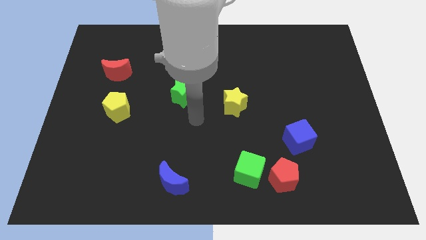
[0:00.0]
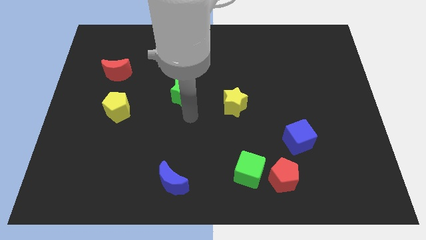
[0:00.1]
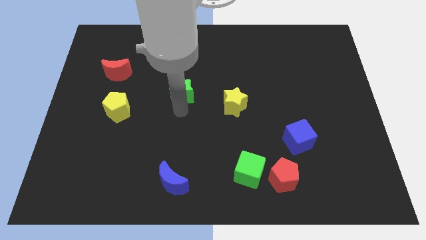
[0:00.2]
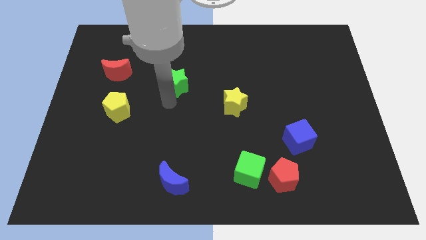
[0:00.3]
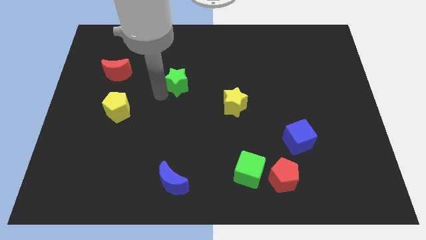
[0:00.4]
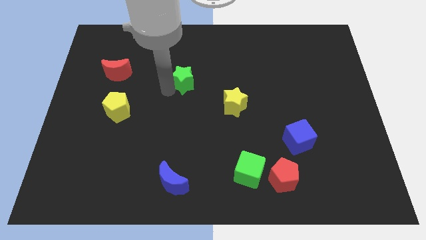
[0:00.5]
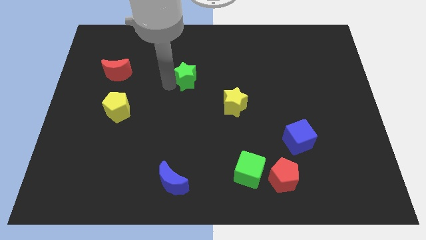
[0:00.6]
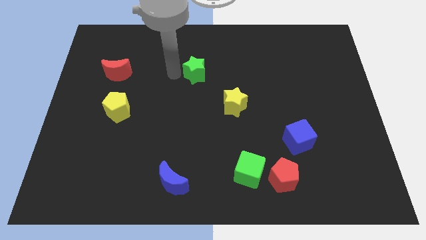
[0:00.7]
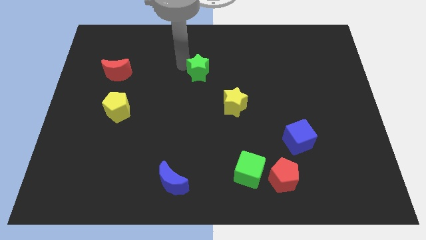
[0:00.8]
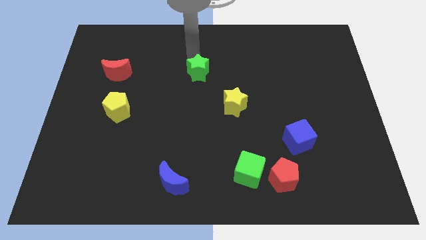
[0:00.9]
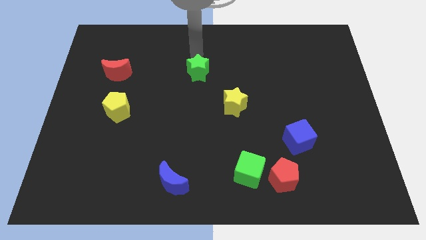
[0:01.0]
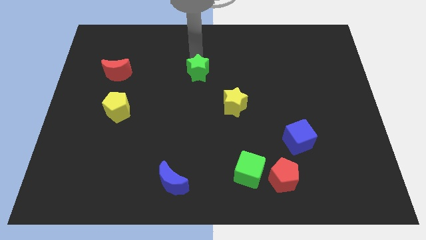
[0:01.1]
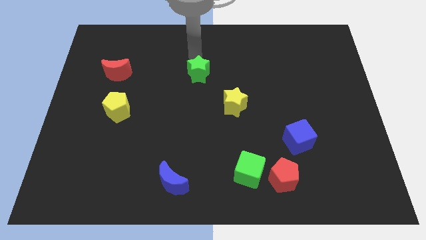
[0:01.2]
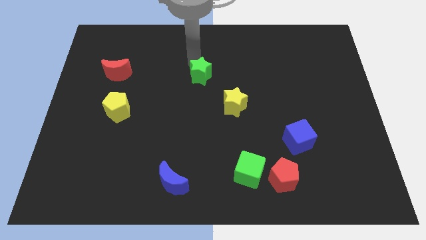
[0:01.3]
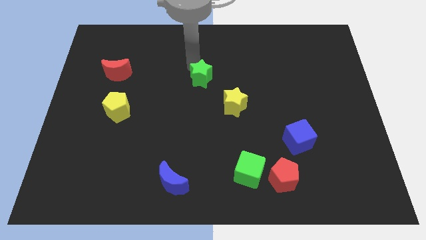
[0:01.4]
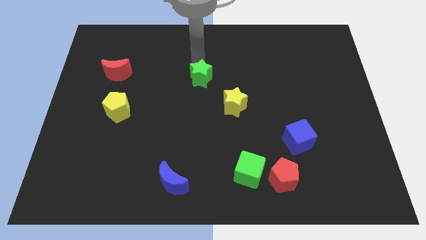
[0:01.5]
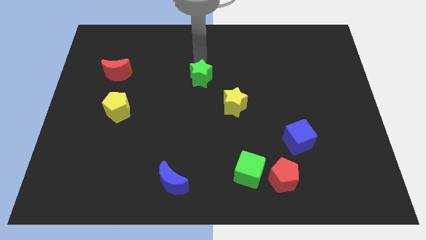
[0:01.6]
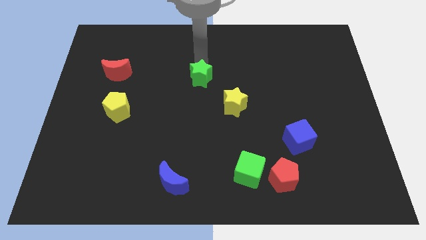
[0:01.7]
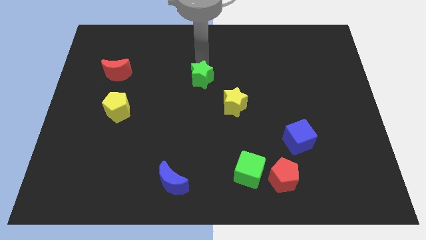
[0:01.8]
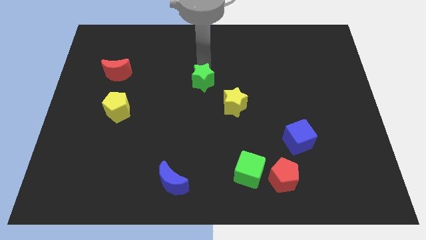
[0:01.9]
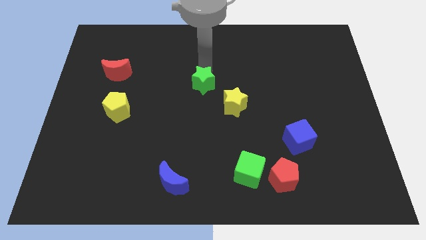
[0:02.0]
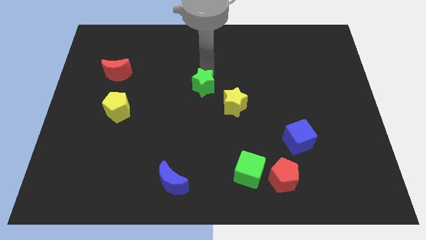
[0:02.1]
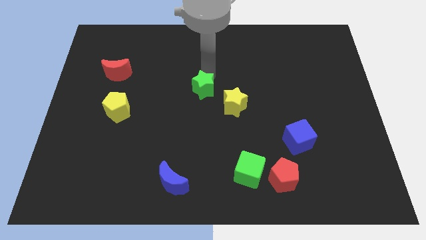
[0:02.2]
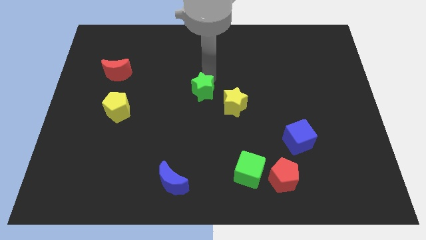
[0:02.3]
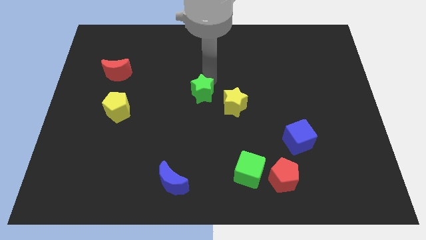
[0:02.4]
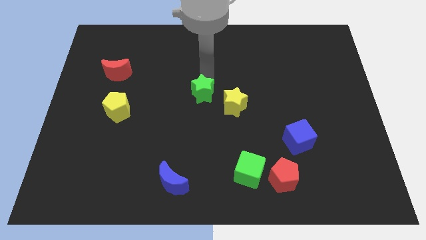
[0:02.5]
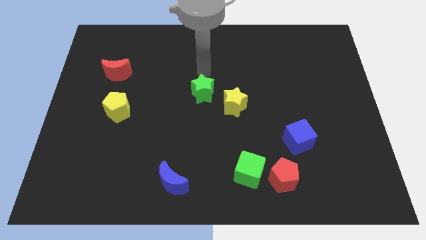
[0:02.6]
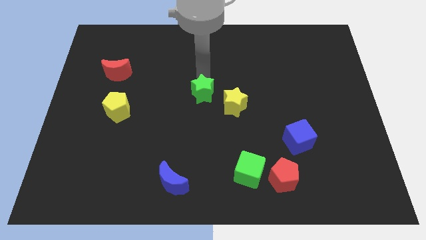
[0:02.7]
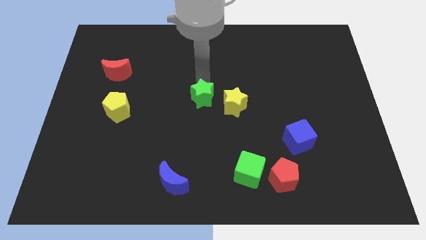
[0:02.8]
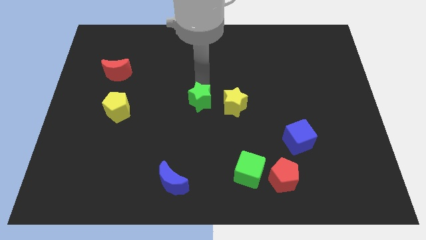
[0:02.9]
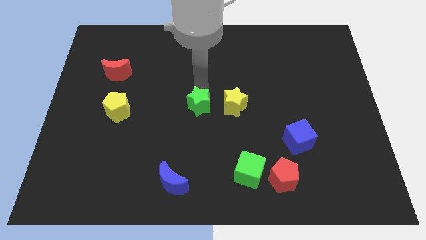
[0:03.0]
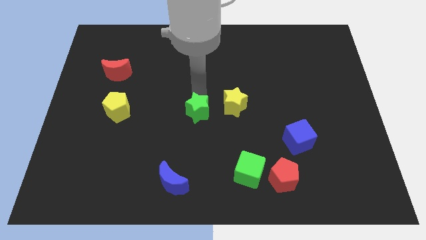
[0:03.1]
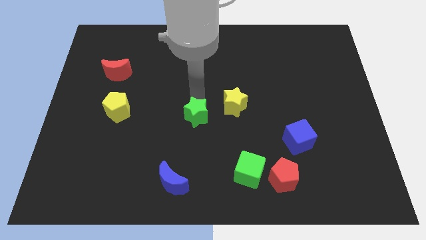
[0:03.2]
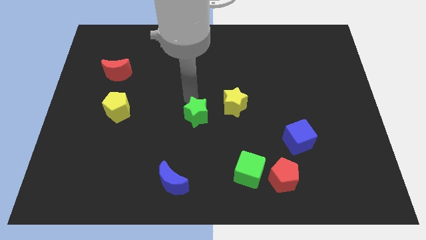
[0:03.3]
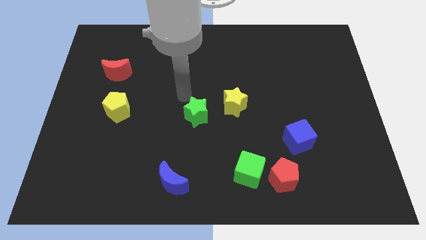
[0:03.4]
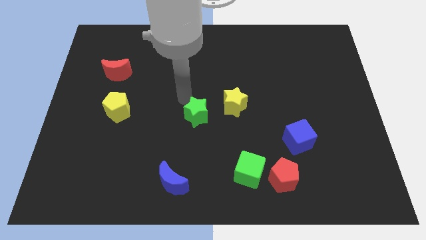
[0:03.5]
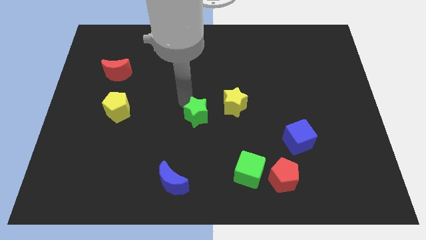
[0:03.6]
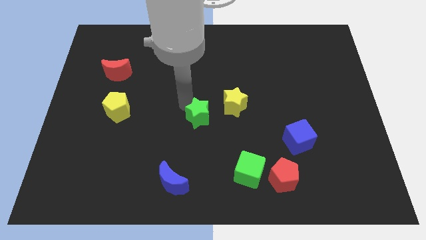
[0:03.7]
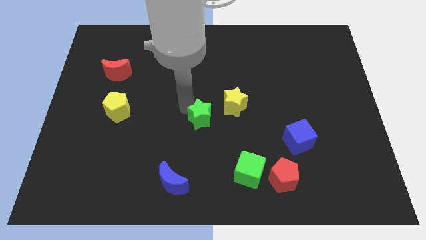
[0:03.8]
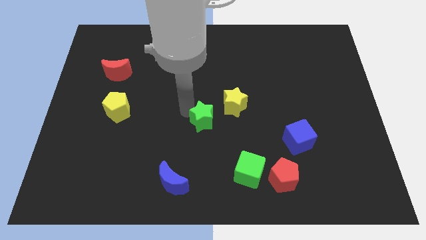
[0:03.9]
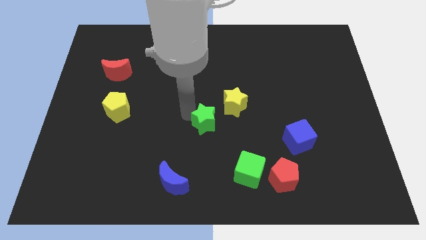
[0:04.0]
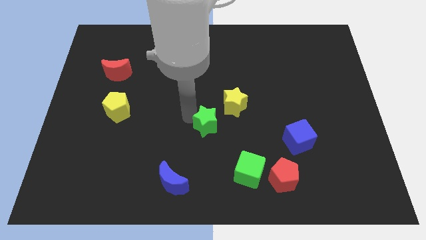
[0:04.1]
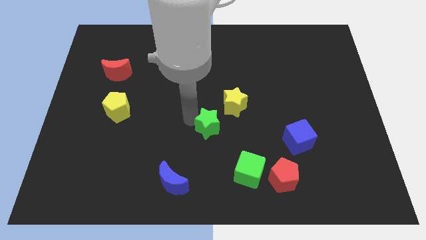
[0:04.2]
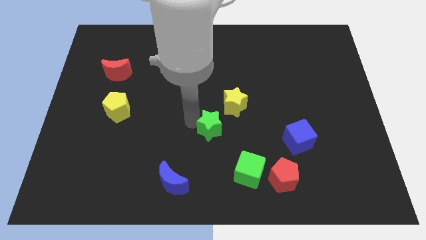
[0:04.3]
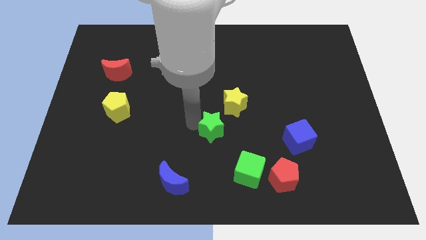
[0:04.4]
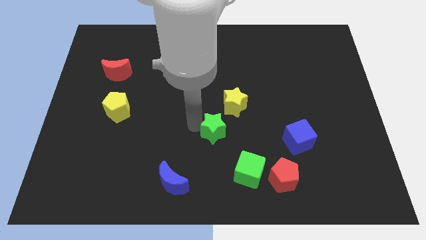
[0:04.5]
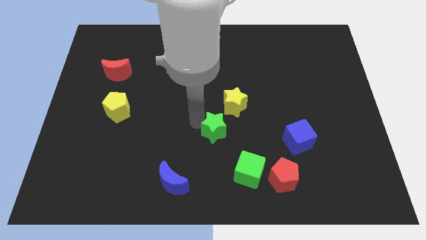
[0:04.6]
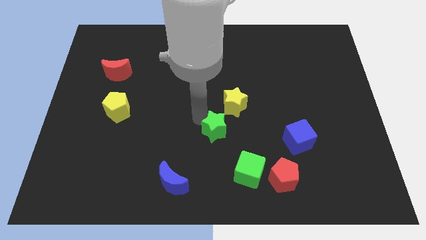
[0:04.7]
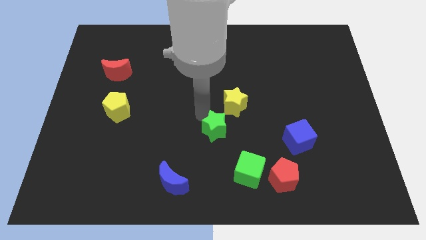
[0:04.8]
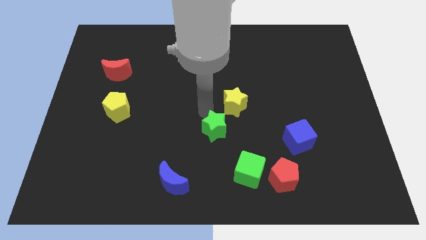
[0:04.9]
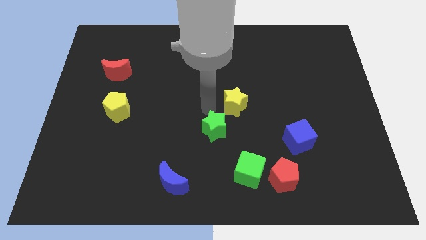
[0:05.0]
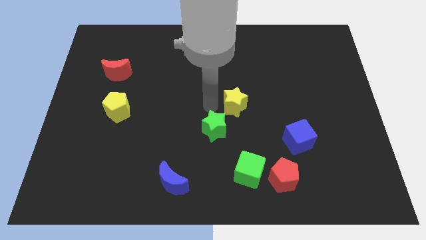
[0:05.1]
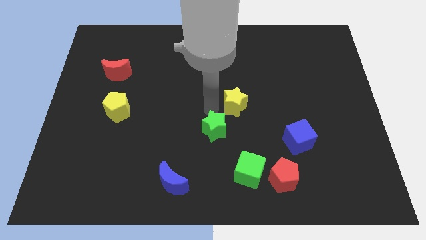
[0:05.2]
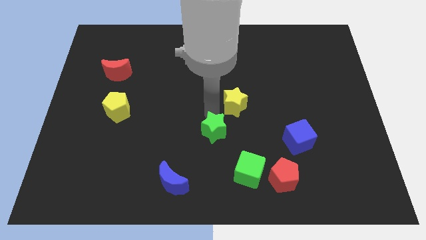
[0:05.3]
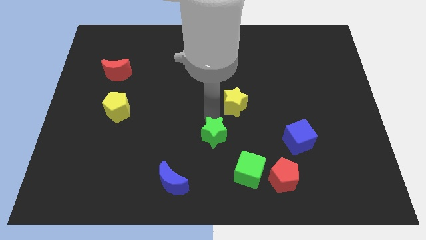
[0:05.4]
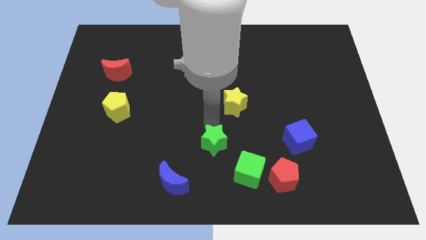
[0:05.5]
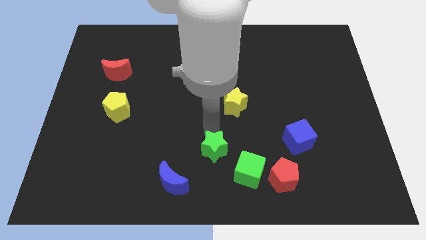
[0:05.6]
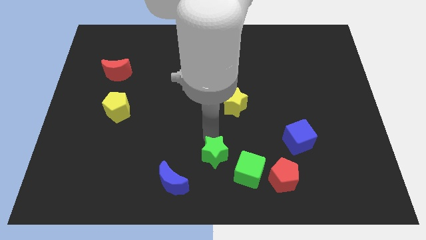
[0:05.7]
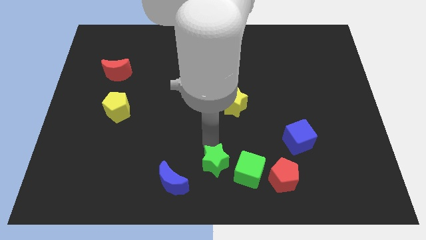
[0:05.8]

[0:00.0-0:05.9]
move the green star just left of the red pentagon

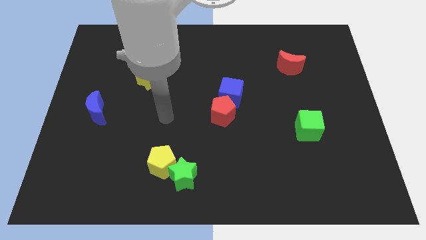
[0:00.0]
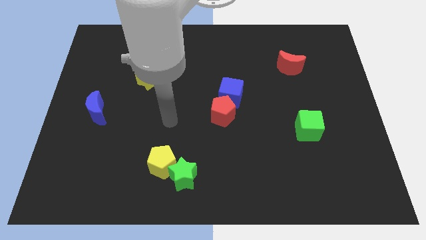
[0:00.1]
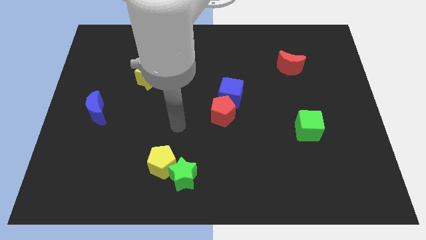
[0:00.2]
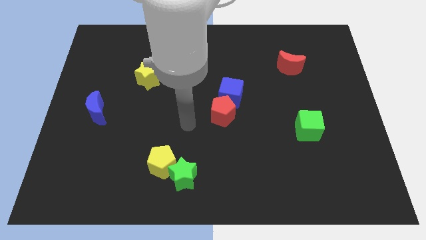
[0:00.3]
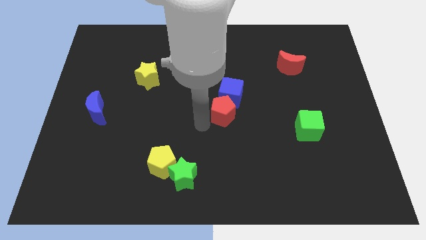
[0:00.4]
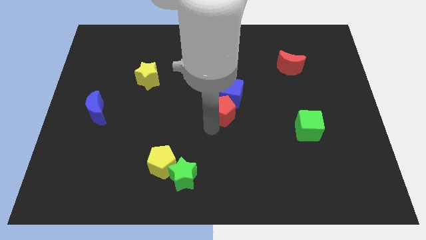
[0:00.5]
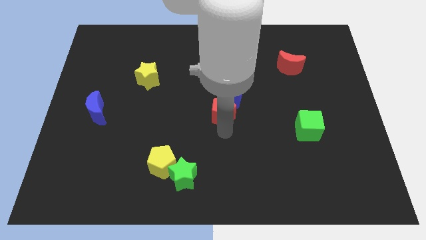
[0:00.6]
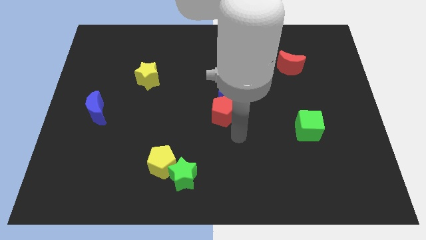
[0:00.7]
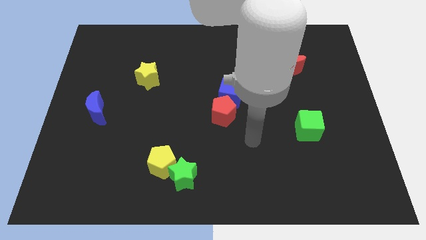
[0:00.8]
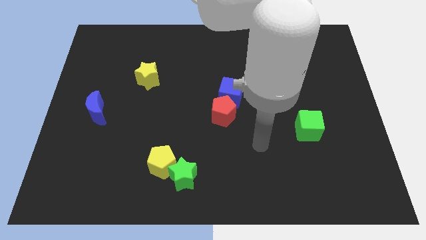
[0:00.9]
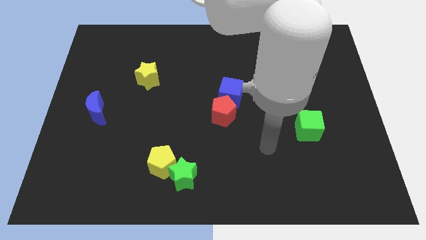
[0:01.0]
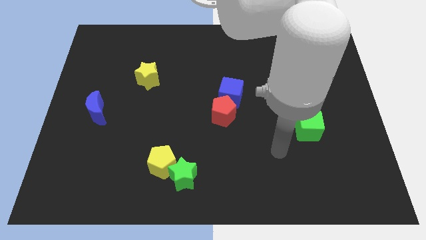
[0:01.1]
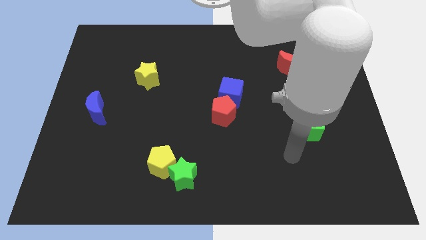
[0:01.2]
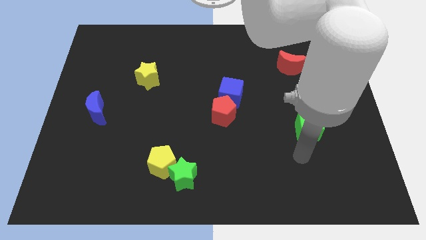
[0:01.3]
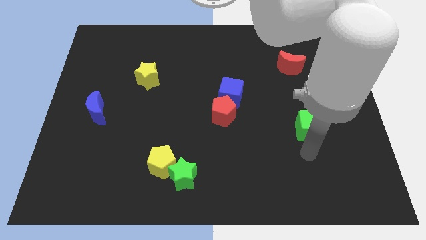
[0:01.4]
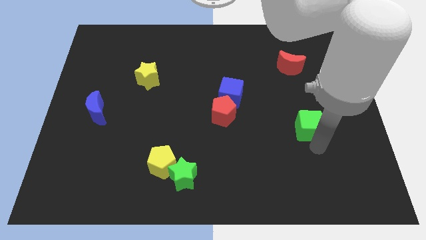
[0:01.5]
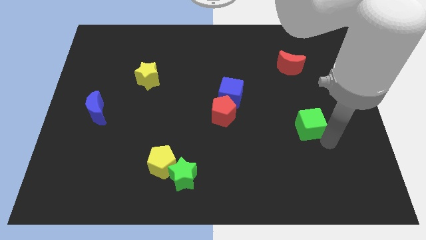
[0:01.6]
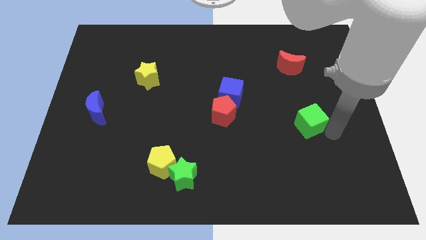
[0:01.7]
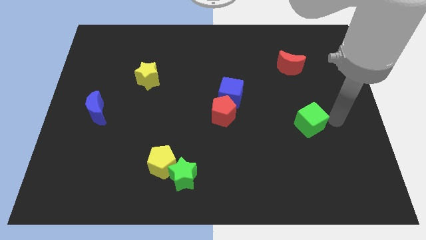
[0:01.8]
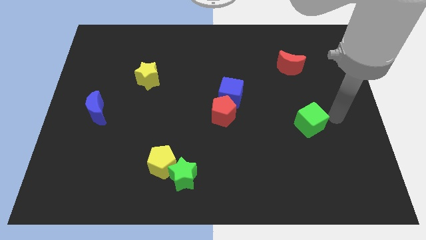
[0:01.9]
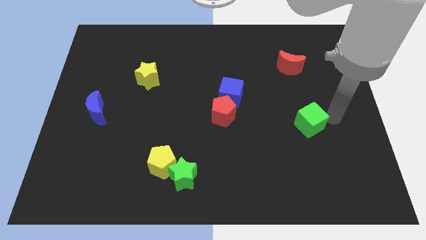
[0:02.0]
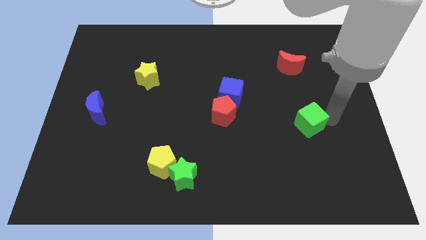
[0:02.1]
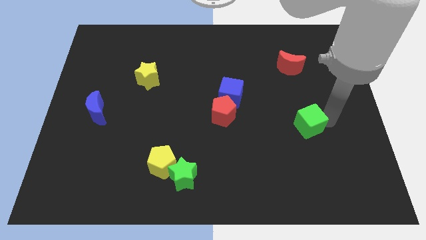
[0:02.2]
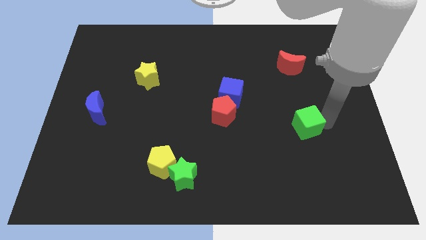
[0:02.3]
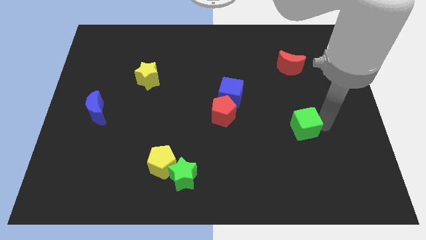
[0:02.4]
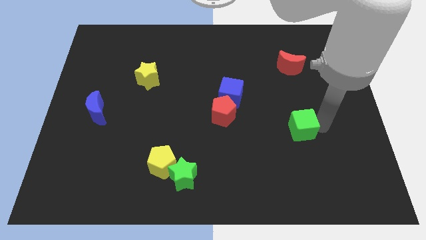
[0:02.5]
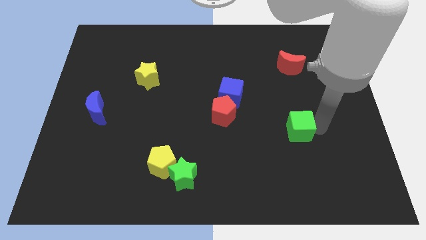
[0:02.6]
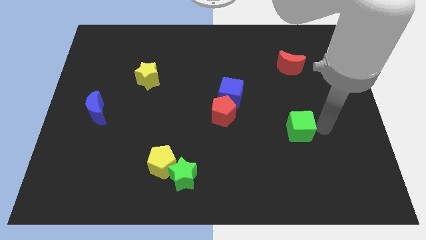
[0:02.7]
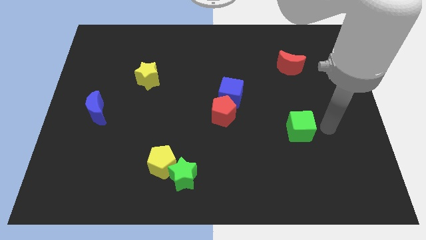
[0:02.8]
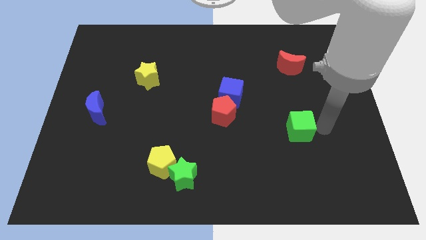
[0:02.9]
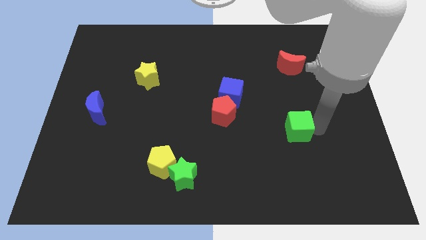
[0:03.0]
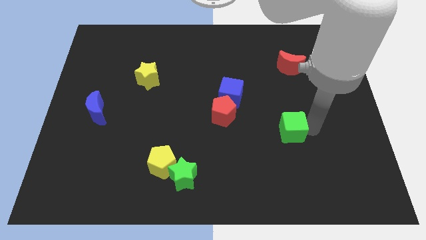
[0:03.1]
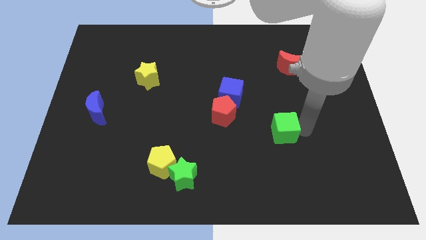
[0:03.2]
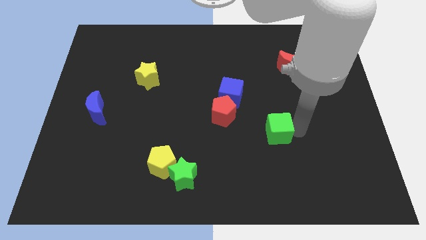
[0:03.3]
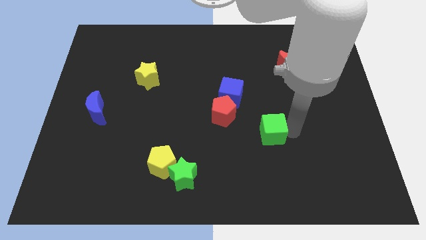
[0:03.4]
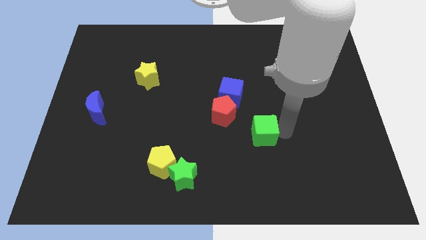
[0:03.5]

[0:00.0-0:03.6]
push the green cube to the bottom right side of the red pentagon
